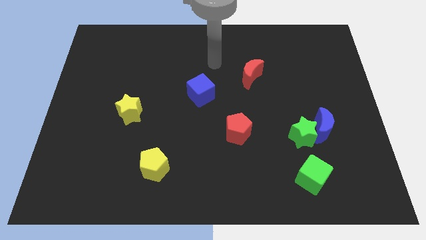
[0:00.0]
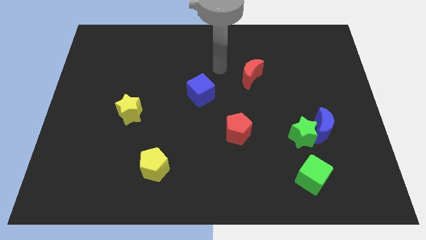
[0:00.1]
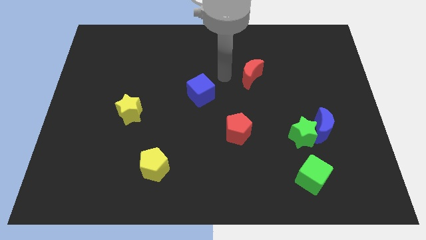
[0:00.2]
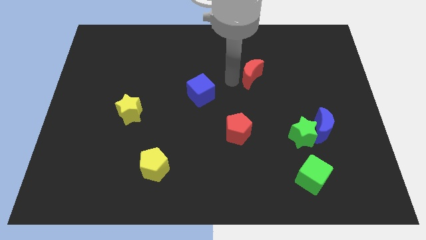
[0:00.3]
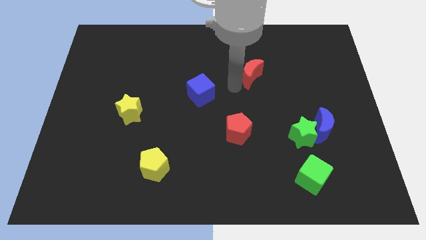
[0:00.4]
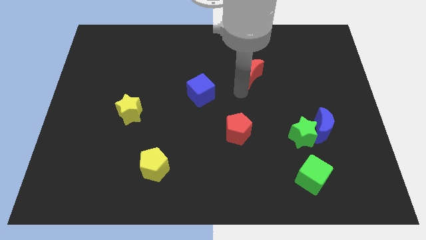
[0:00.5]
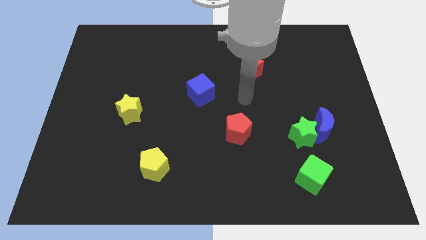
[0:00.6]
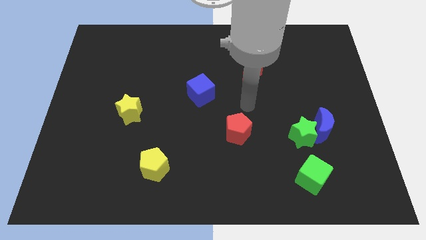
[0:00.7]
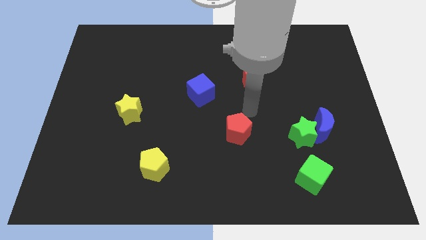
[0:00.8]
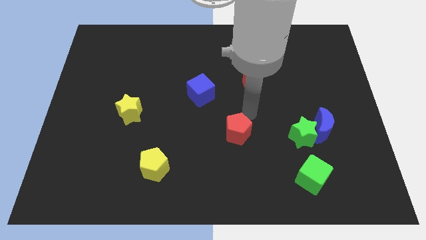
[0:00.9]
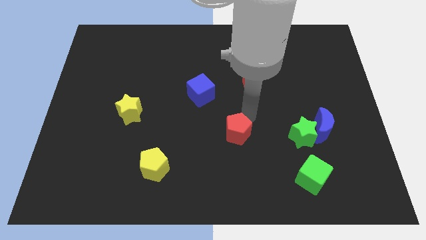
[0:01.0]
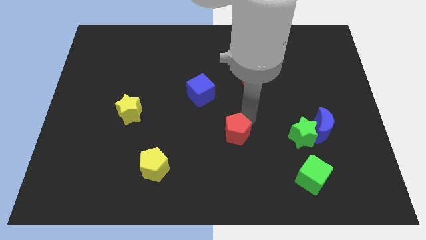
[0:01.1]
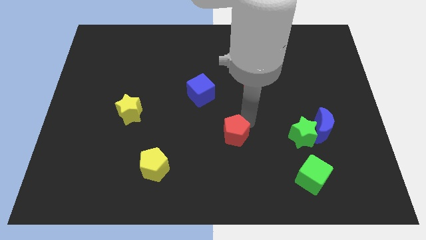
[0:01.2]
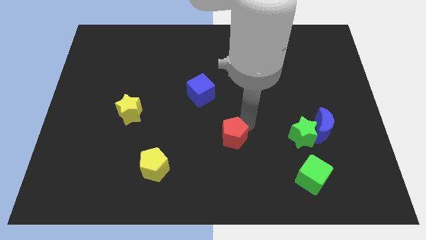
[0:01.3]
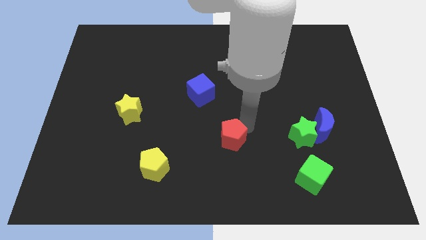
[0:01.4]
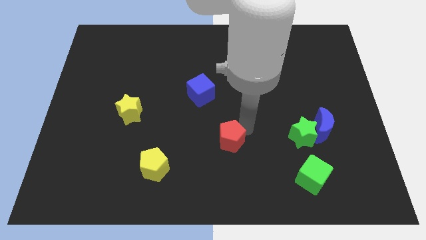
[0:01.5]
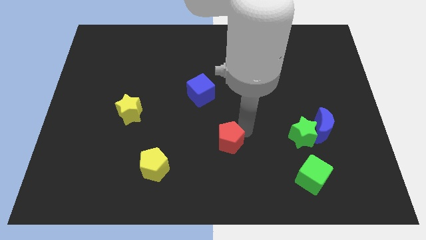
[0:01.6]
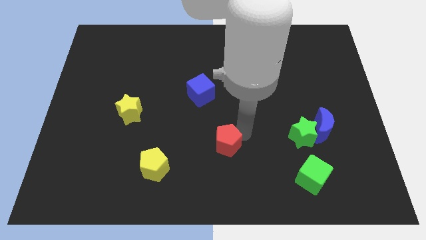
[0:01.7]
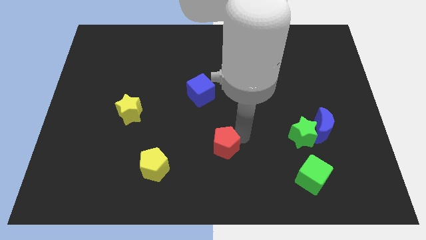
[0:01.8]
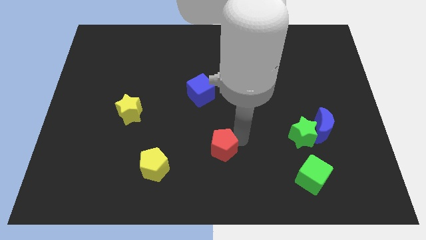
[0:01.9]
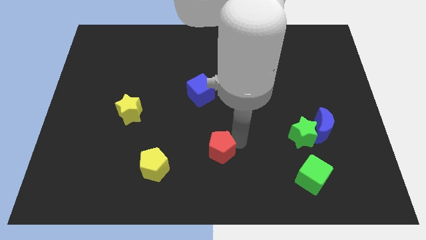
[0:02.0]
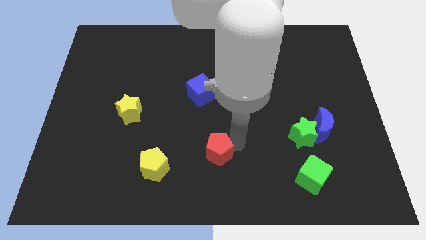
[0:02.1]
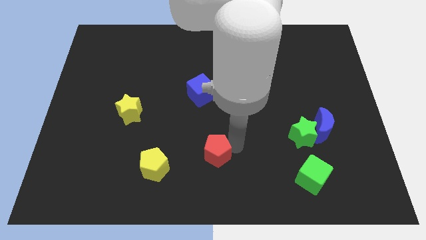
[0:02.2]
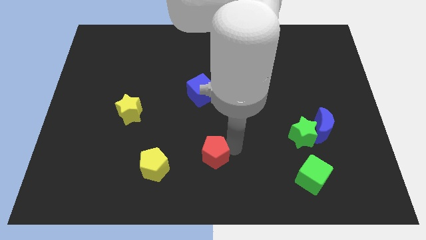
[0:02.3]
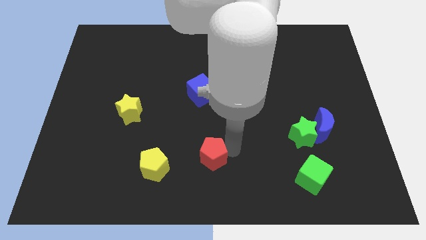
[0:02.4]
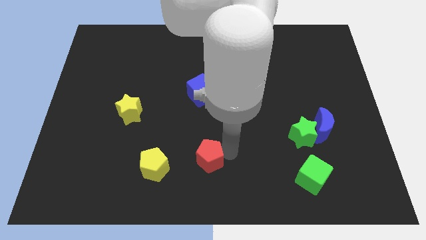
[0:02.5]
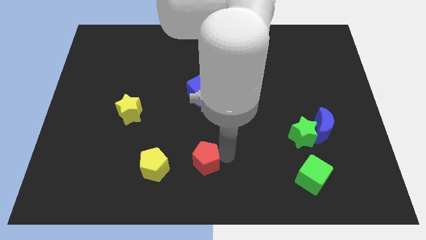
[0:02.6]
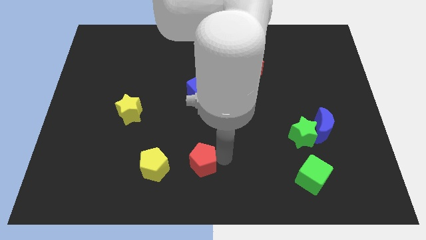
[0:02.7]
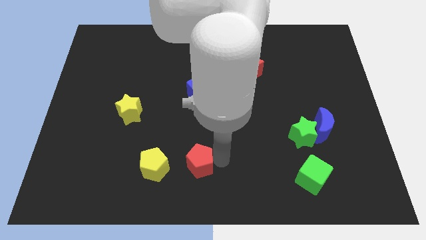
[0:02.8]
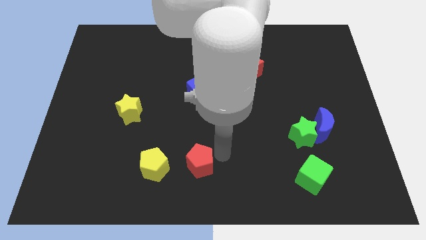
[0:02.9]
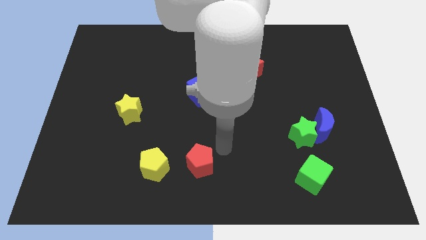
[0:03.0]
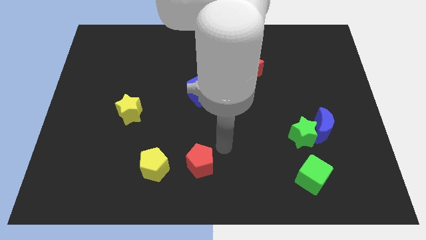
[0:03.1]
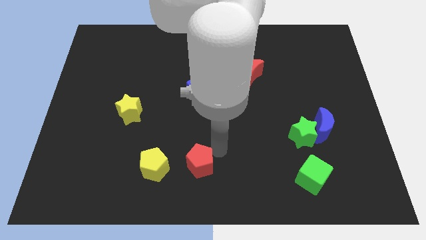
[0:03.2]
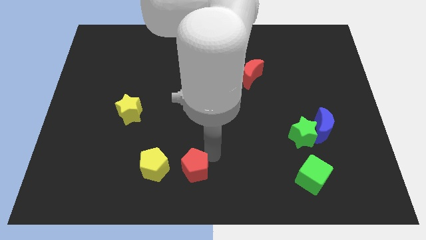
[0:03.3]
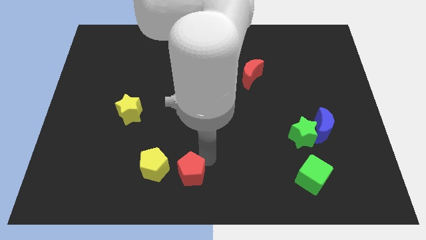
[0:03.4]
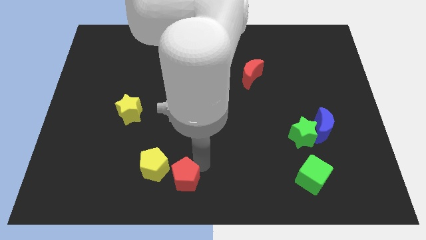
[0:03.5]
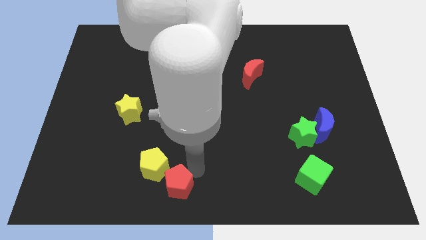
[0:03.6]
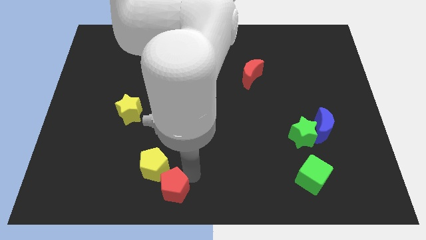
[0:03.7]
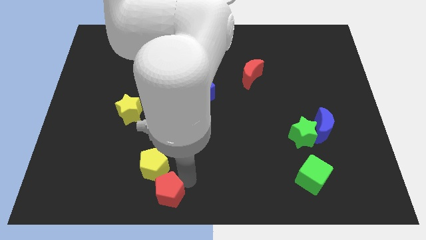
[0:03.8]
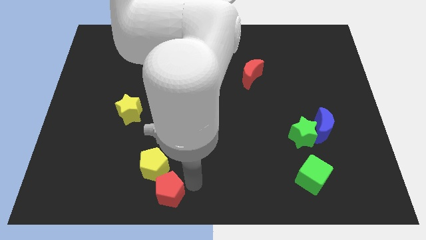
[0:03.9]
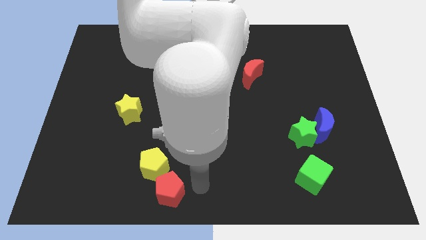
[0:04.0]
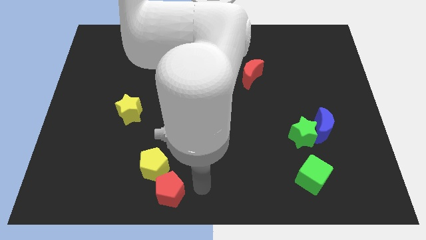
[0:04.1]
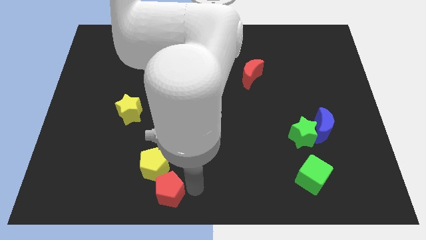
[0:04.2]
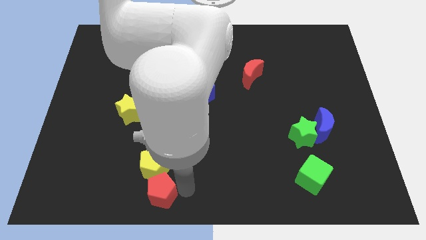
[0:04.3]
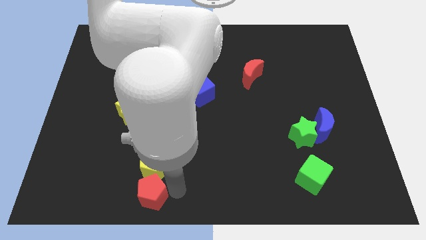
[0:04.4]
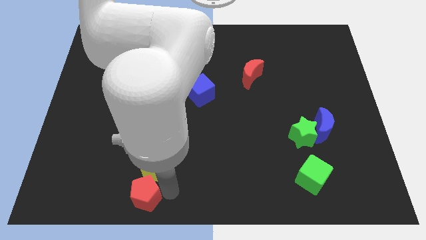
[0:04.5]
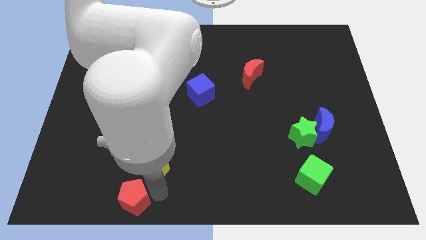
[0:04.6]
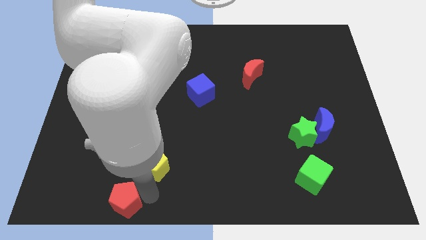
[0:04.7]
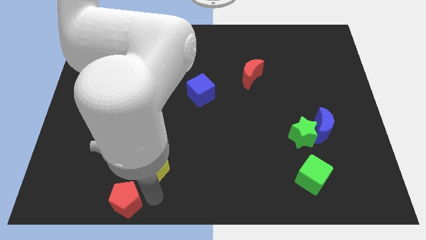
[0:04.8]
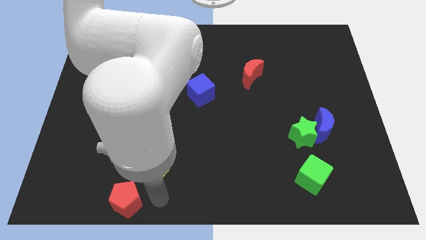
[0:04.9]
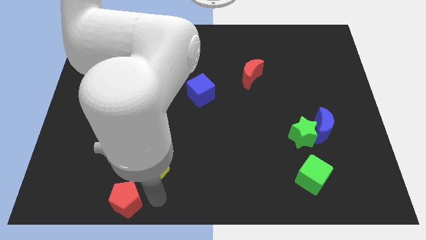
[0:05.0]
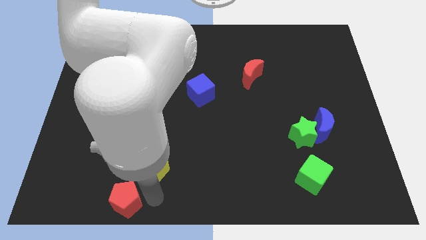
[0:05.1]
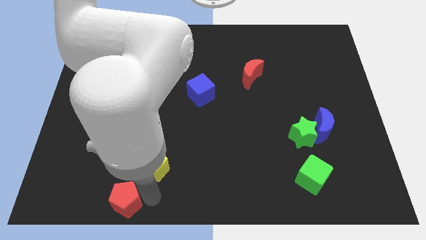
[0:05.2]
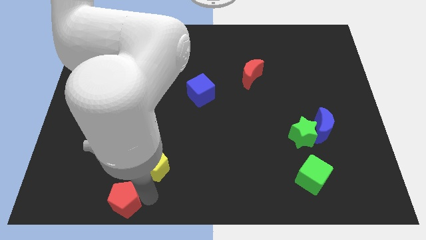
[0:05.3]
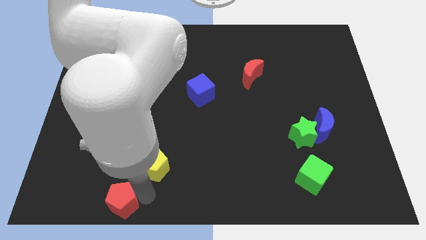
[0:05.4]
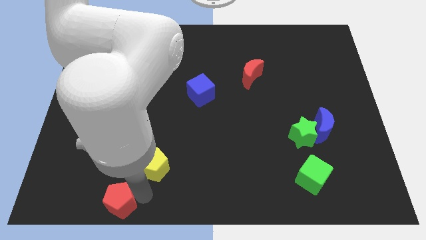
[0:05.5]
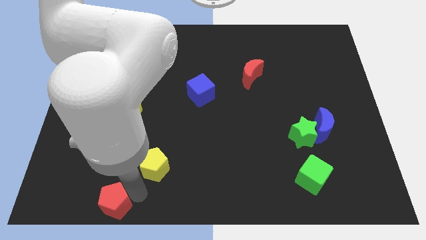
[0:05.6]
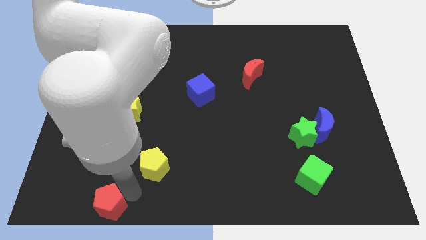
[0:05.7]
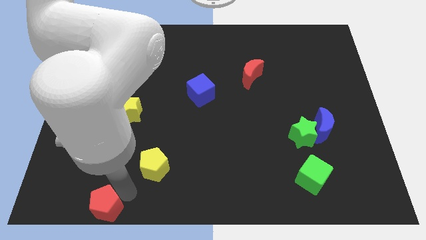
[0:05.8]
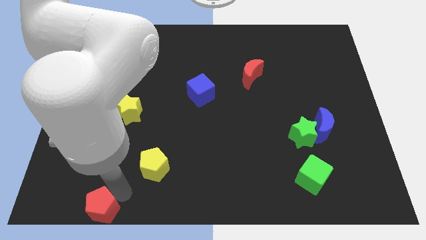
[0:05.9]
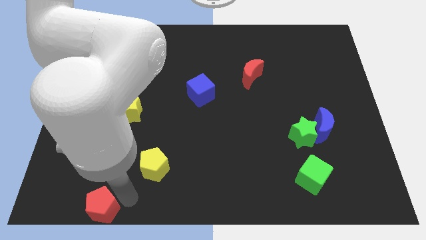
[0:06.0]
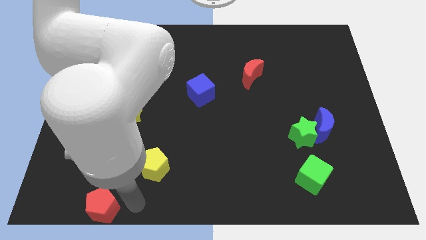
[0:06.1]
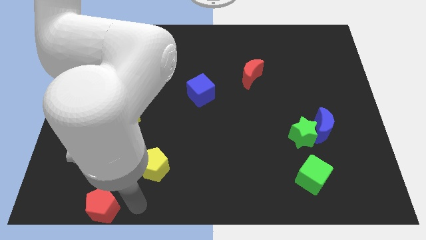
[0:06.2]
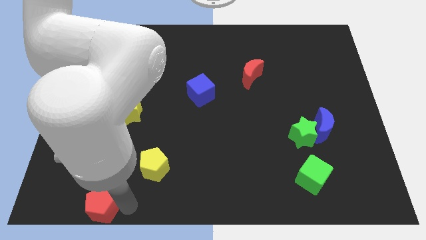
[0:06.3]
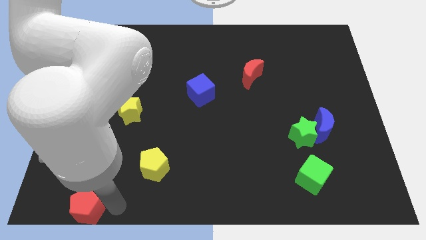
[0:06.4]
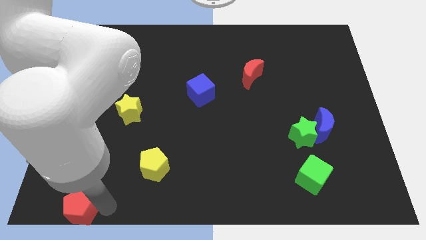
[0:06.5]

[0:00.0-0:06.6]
push the red pentagon to the bottom left corner

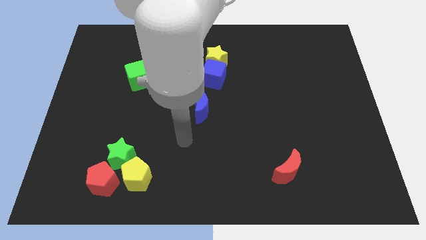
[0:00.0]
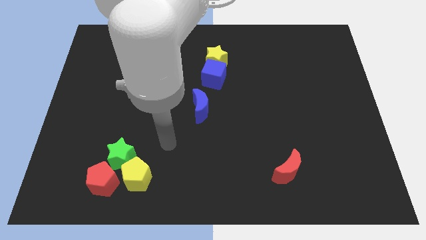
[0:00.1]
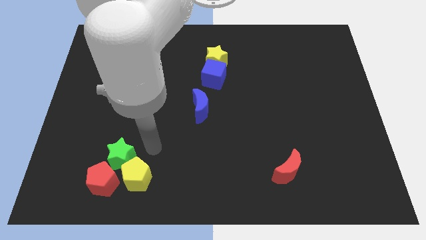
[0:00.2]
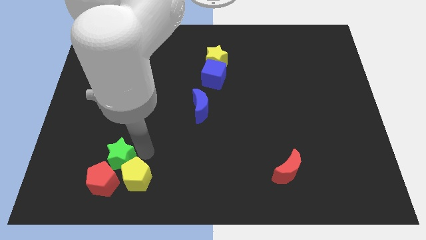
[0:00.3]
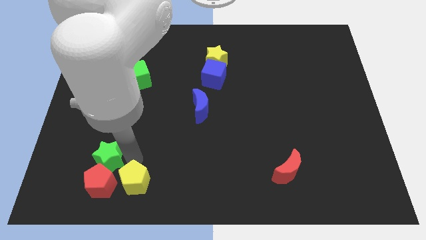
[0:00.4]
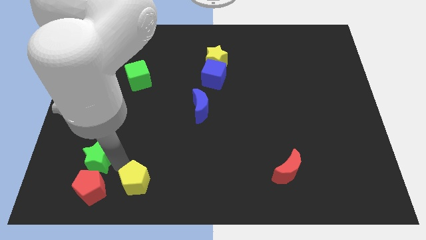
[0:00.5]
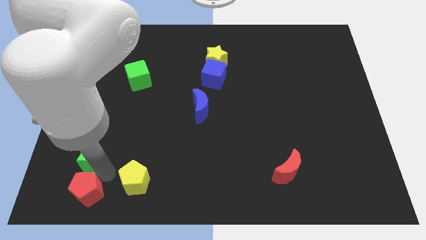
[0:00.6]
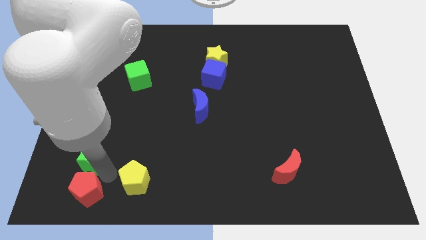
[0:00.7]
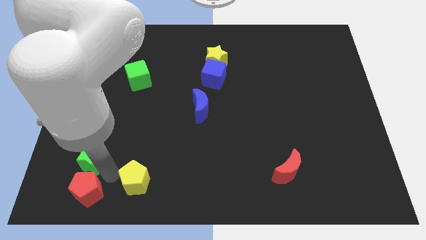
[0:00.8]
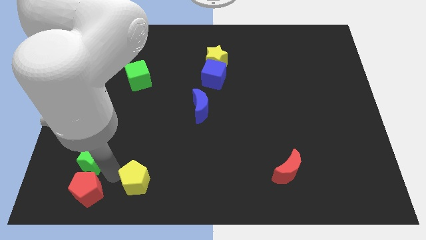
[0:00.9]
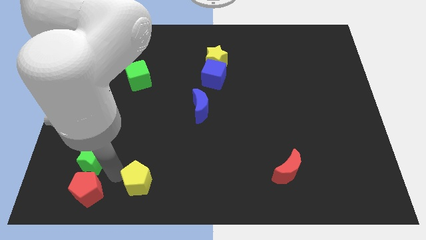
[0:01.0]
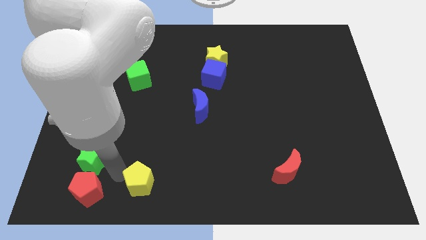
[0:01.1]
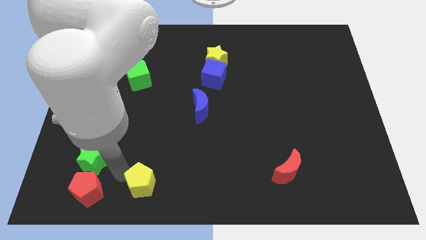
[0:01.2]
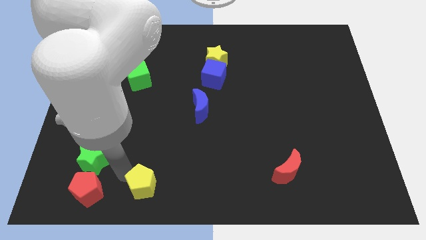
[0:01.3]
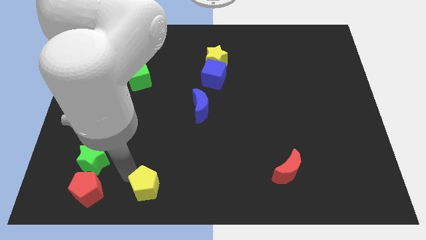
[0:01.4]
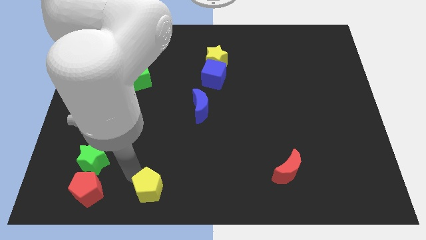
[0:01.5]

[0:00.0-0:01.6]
push the yellow pentagon to the bottom side

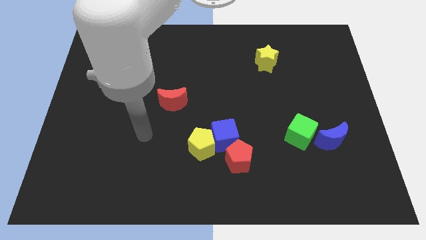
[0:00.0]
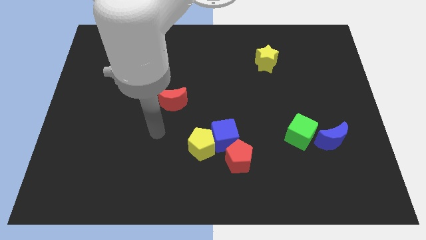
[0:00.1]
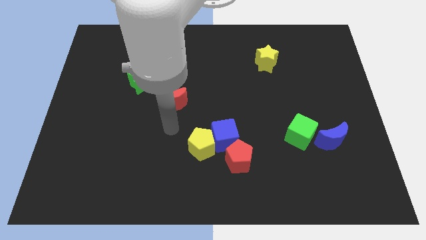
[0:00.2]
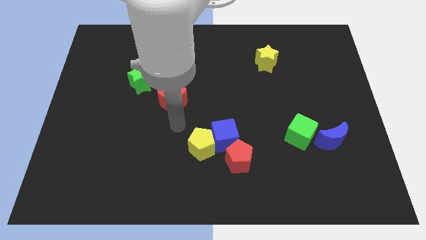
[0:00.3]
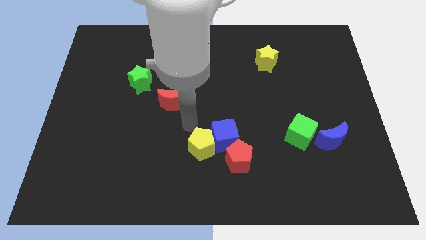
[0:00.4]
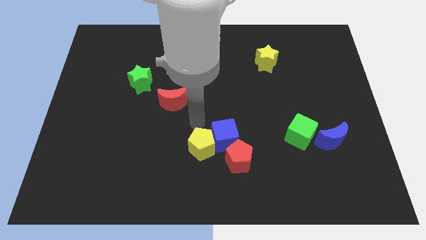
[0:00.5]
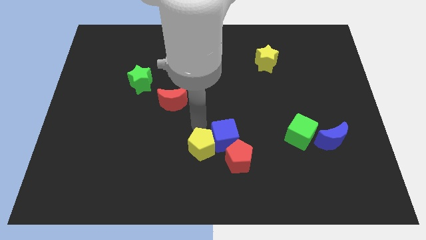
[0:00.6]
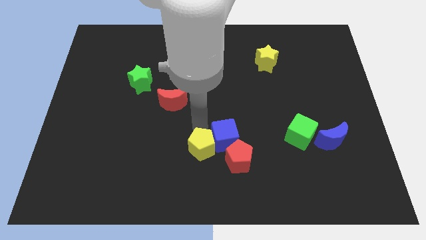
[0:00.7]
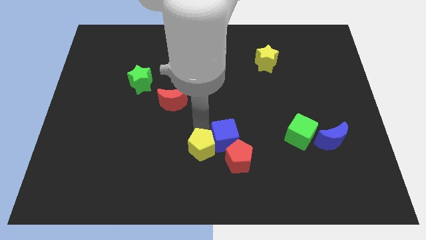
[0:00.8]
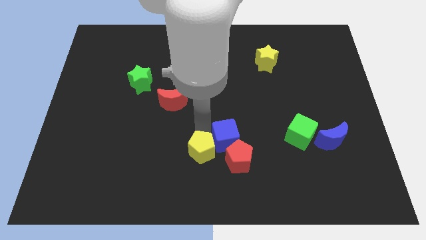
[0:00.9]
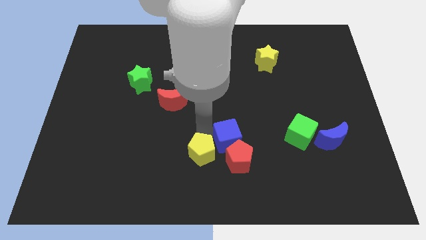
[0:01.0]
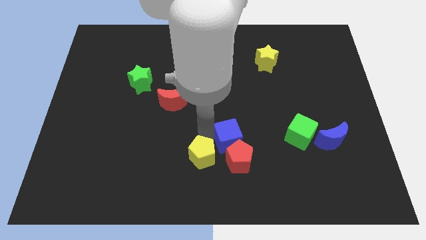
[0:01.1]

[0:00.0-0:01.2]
put the yellow pentagon to the bottom
